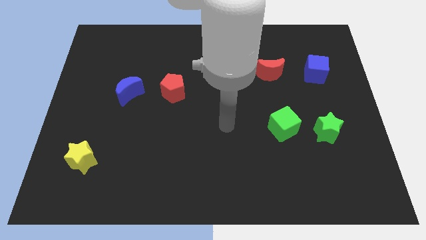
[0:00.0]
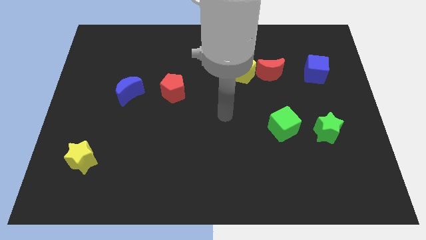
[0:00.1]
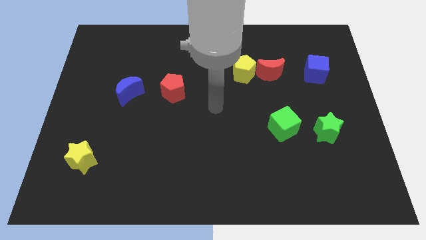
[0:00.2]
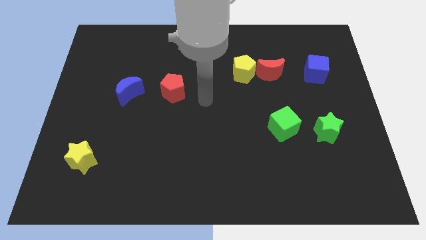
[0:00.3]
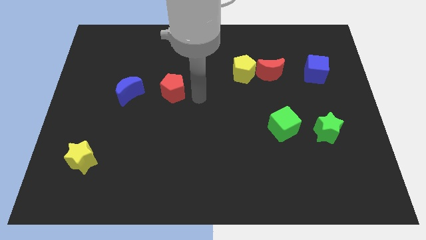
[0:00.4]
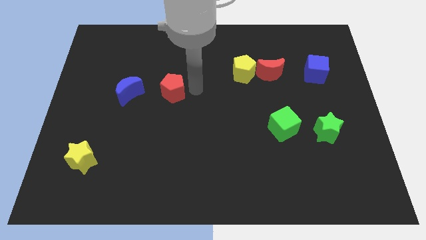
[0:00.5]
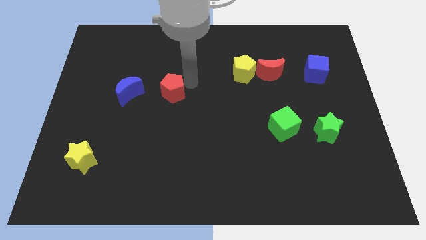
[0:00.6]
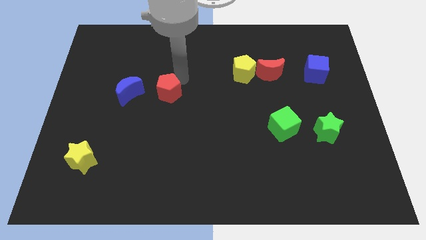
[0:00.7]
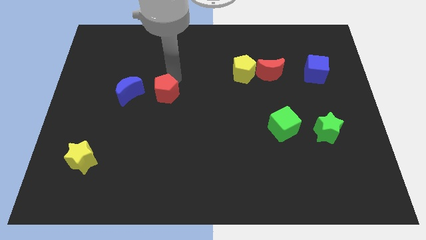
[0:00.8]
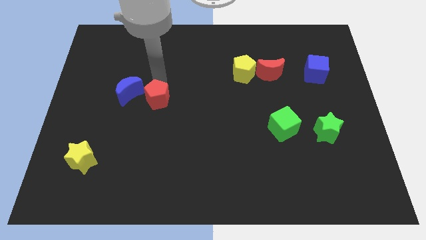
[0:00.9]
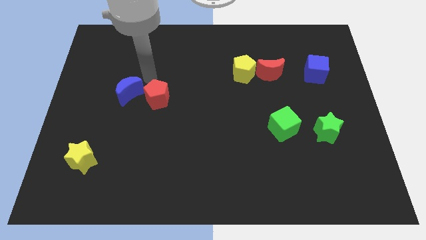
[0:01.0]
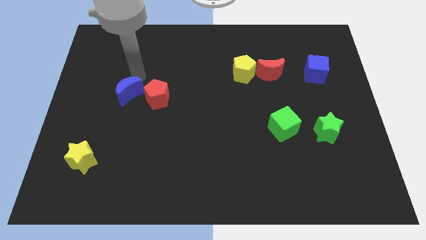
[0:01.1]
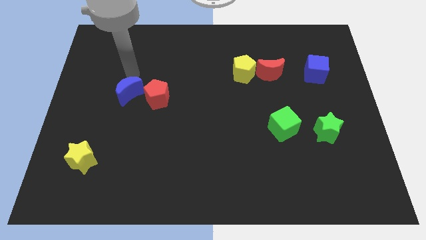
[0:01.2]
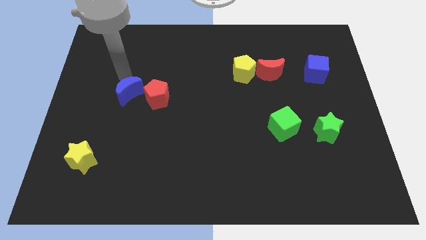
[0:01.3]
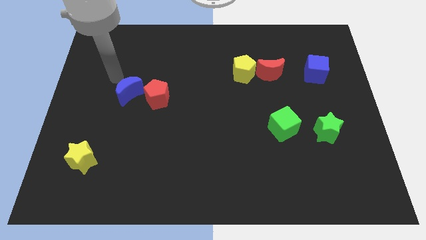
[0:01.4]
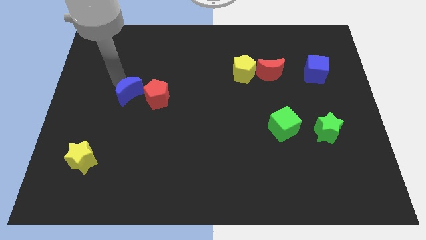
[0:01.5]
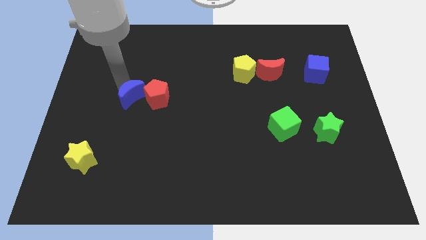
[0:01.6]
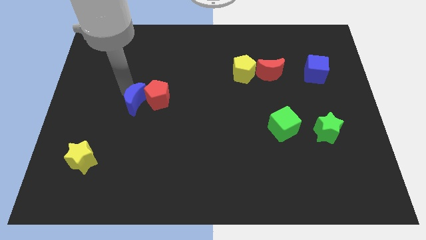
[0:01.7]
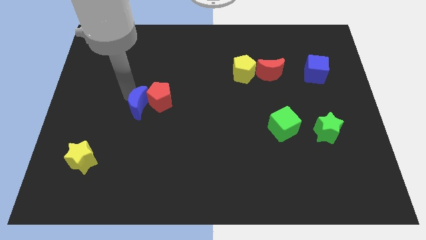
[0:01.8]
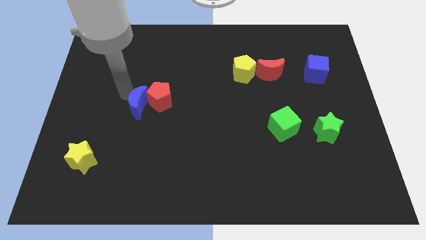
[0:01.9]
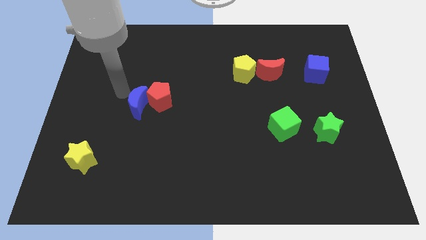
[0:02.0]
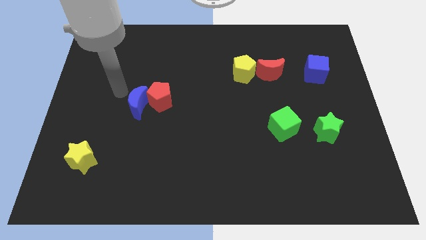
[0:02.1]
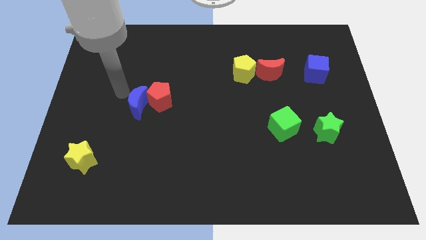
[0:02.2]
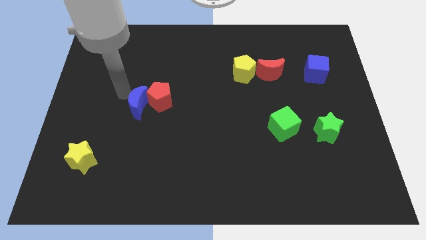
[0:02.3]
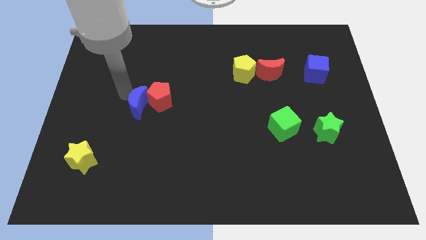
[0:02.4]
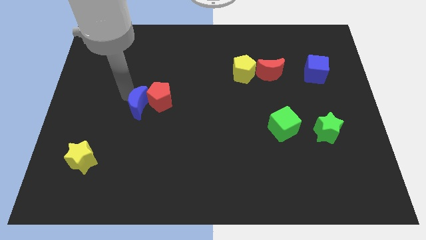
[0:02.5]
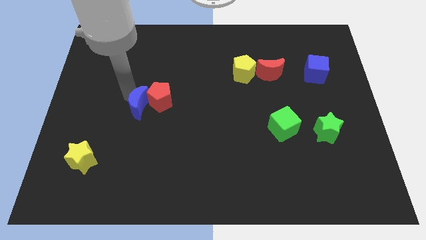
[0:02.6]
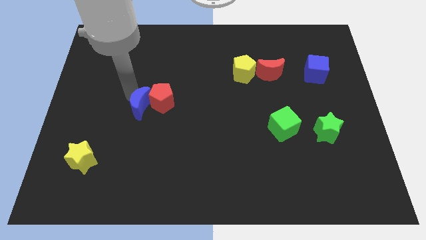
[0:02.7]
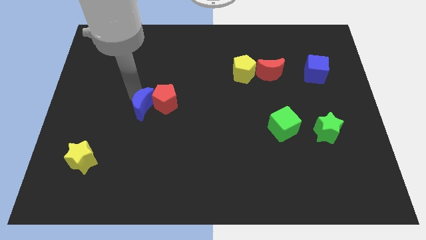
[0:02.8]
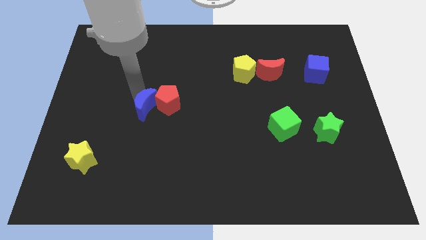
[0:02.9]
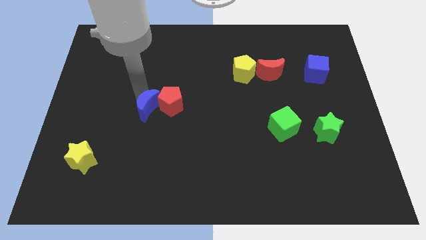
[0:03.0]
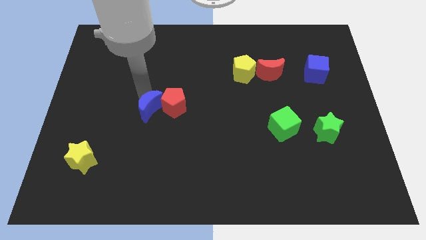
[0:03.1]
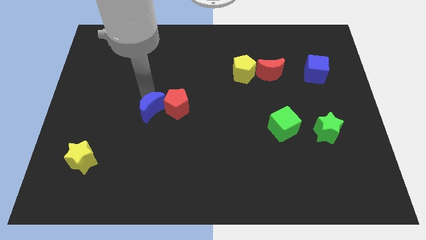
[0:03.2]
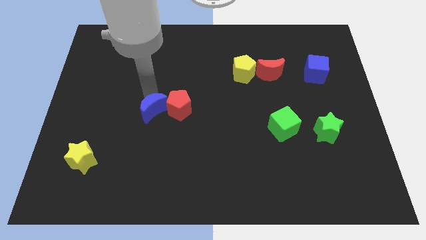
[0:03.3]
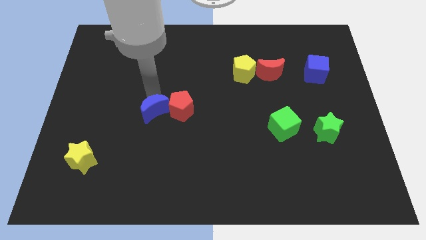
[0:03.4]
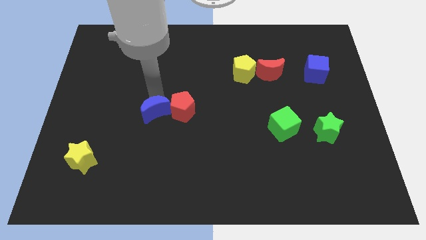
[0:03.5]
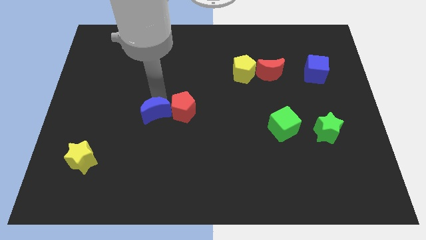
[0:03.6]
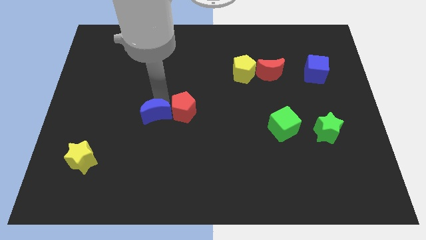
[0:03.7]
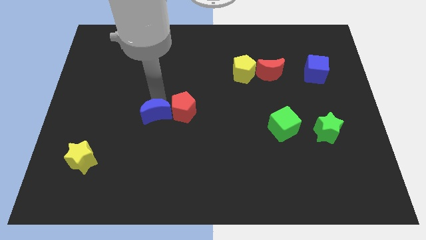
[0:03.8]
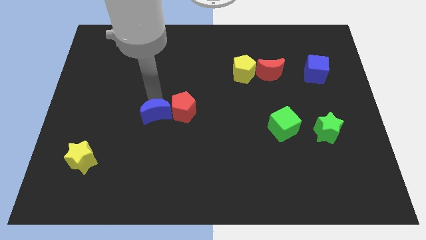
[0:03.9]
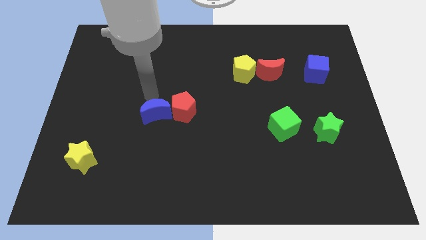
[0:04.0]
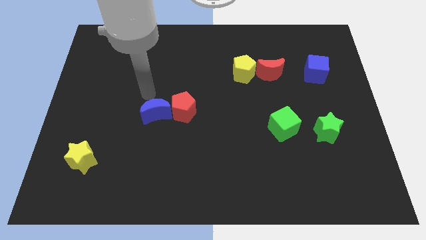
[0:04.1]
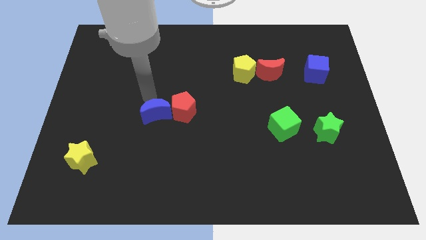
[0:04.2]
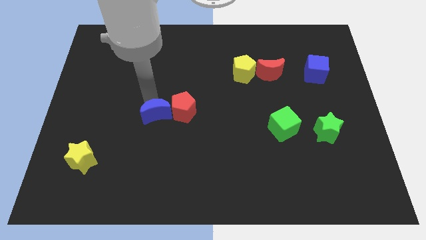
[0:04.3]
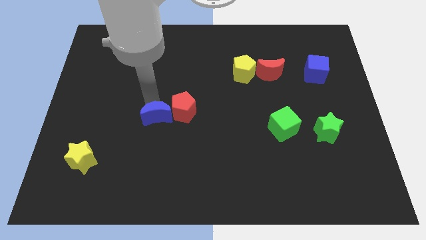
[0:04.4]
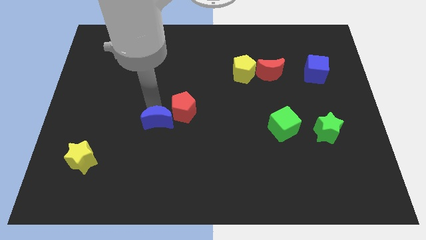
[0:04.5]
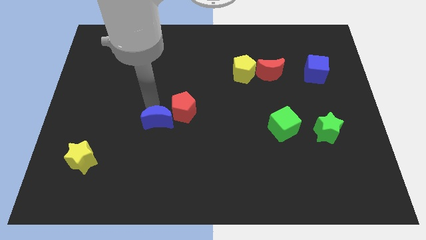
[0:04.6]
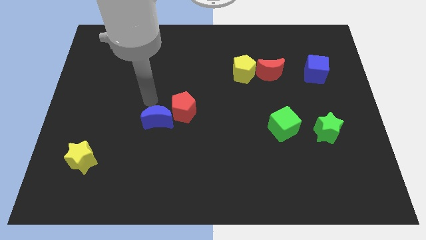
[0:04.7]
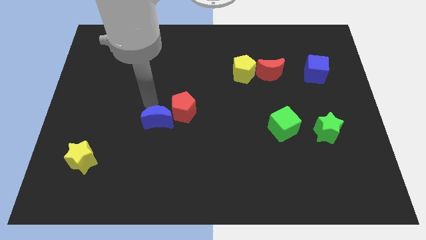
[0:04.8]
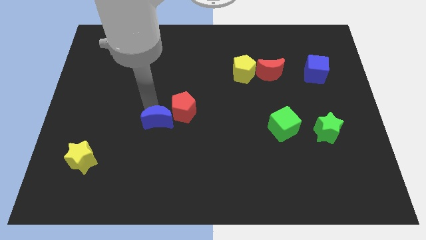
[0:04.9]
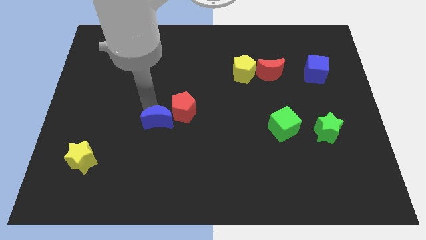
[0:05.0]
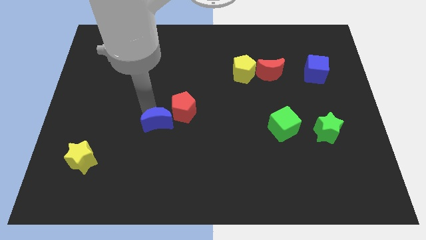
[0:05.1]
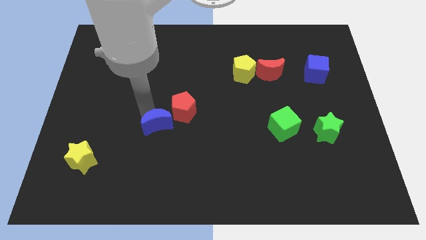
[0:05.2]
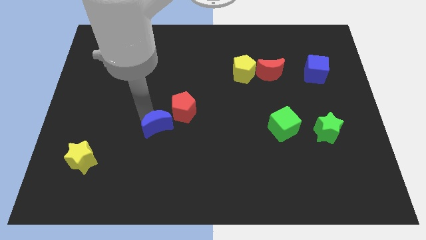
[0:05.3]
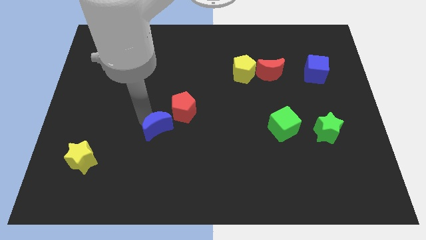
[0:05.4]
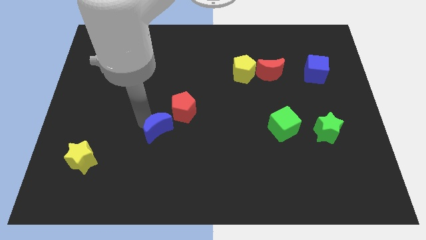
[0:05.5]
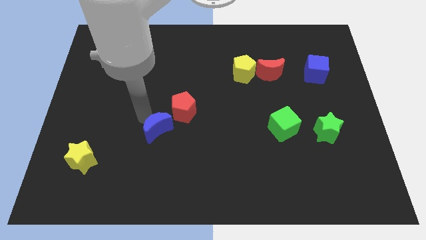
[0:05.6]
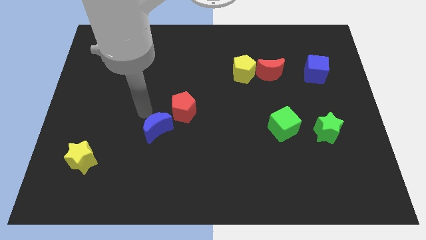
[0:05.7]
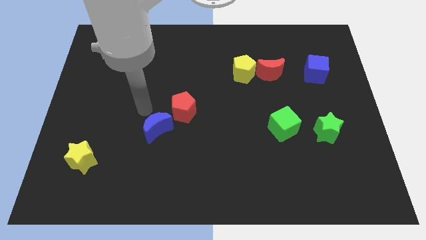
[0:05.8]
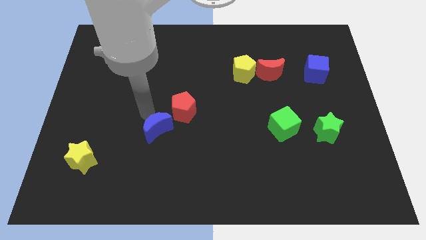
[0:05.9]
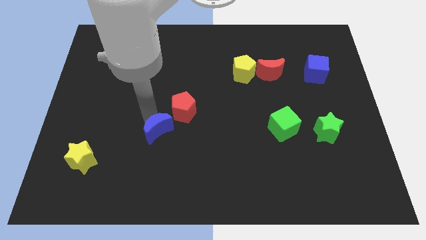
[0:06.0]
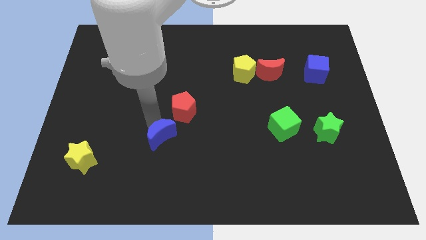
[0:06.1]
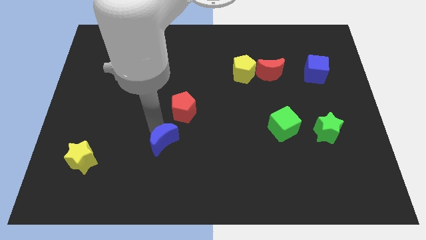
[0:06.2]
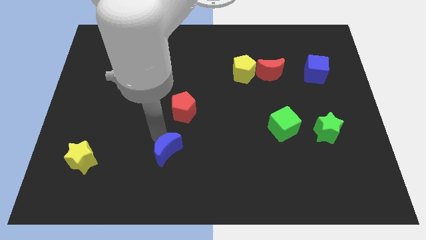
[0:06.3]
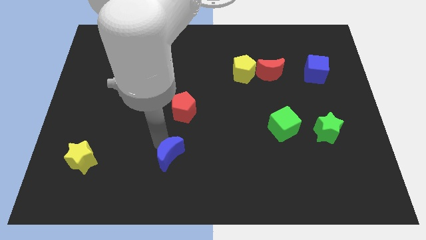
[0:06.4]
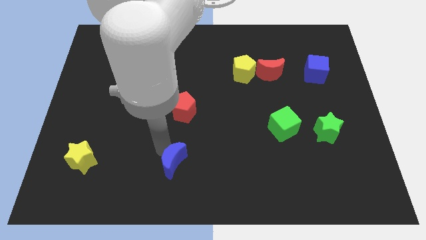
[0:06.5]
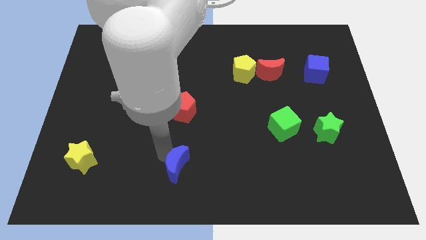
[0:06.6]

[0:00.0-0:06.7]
move the blue moon to the bottom

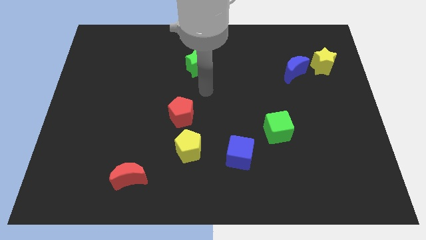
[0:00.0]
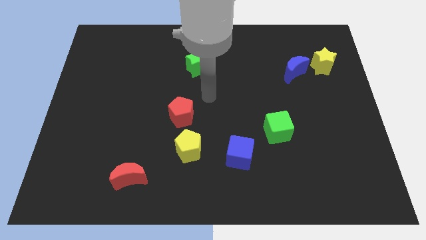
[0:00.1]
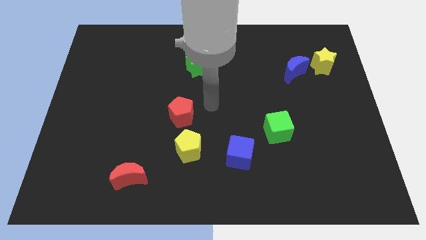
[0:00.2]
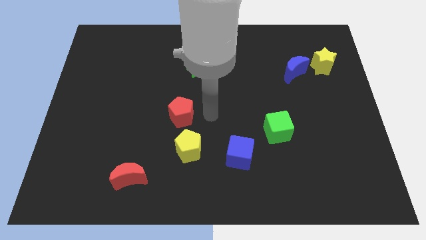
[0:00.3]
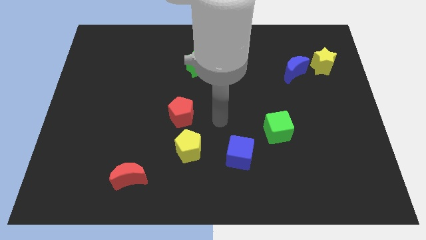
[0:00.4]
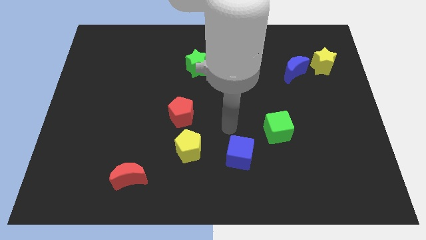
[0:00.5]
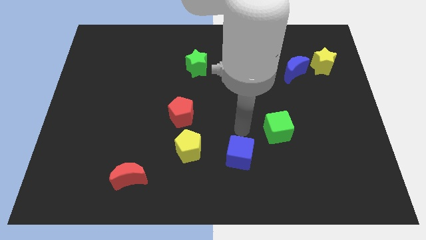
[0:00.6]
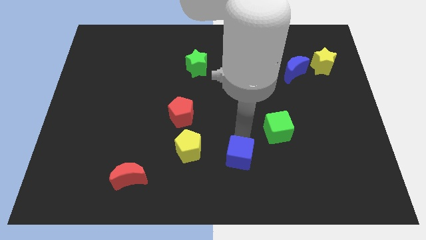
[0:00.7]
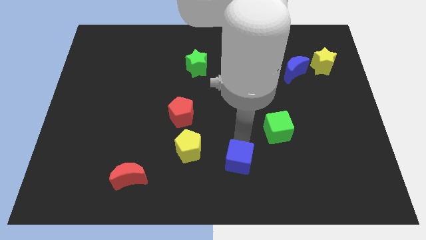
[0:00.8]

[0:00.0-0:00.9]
push the blue cube to the bottom side
